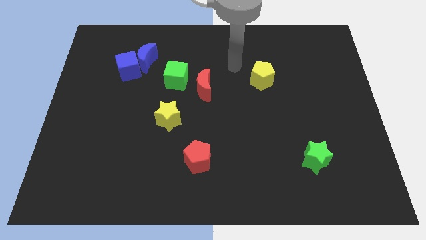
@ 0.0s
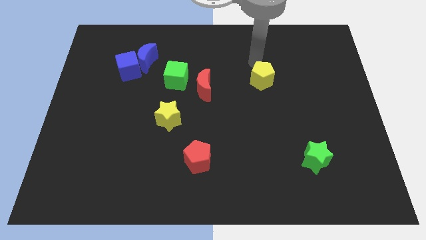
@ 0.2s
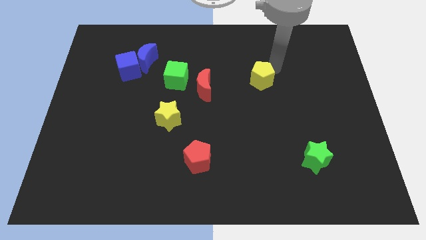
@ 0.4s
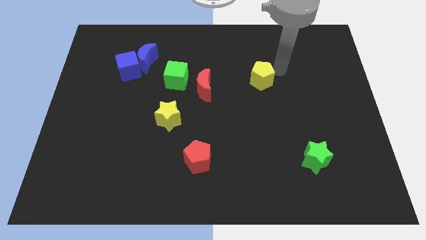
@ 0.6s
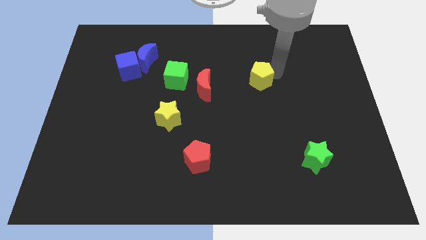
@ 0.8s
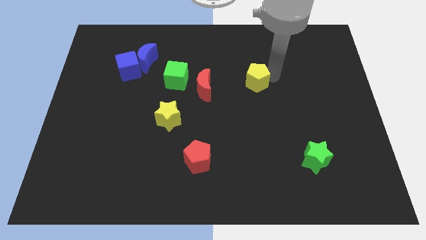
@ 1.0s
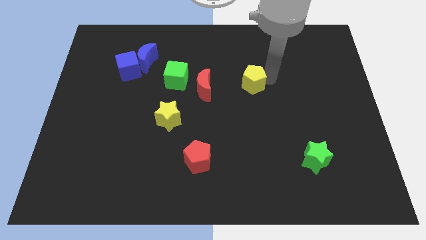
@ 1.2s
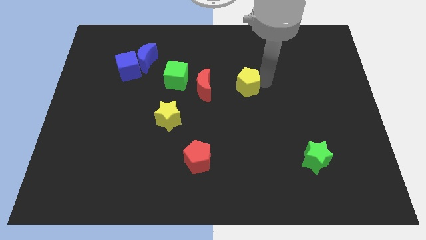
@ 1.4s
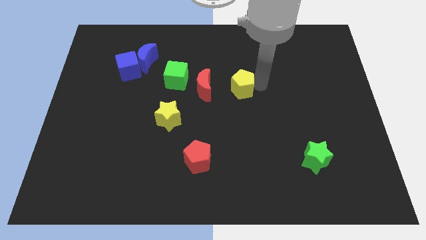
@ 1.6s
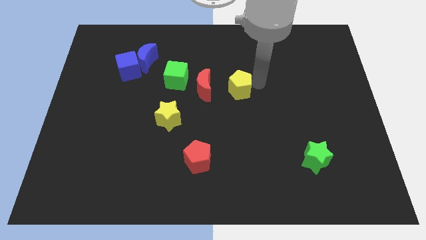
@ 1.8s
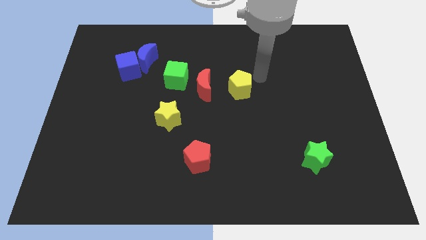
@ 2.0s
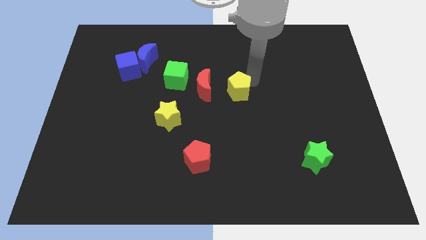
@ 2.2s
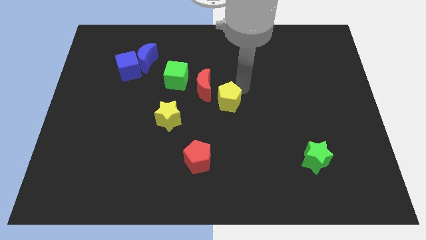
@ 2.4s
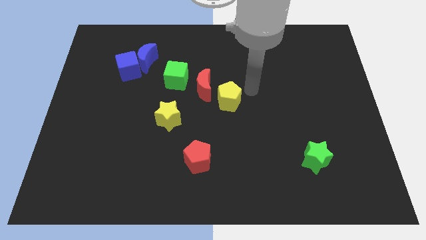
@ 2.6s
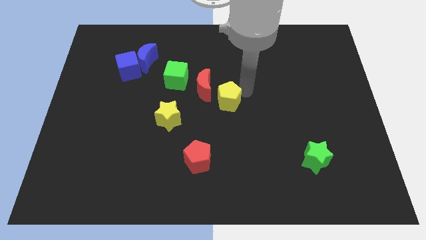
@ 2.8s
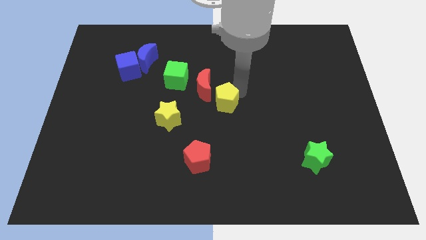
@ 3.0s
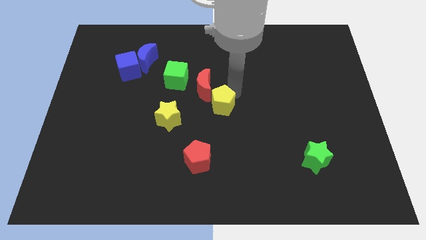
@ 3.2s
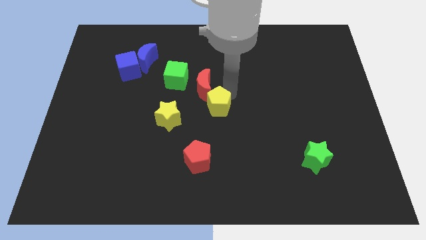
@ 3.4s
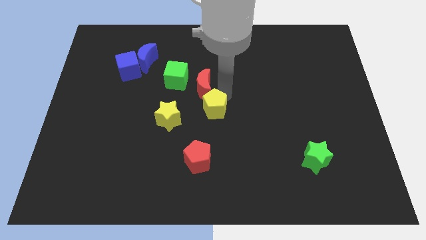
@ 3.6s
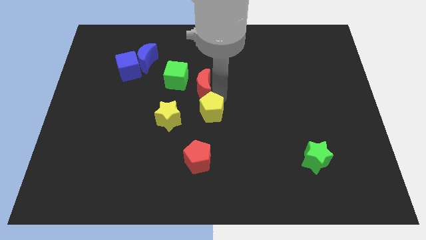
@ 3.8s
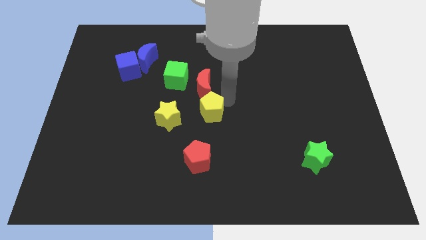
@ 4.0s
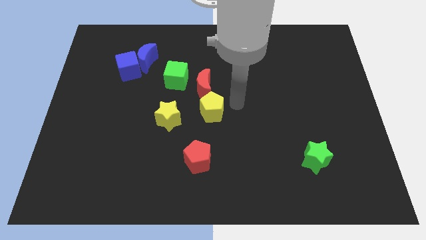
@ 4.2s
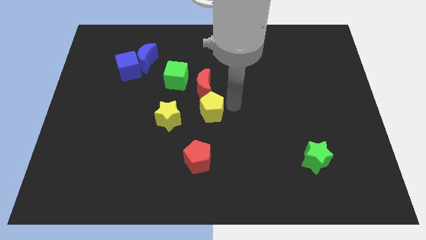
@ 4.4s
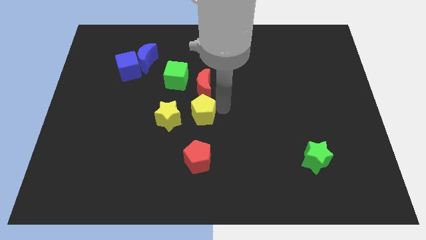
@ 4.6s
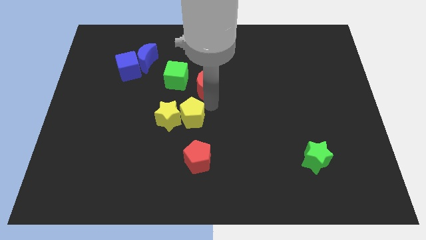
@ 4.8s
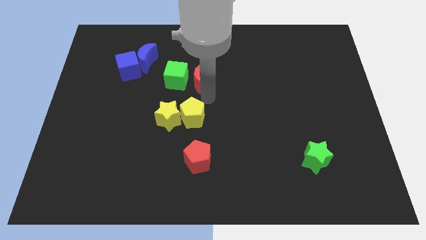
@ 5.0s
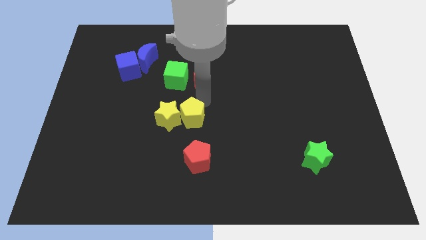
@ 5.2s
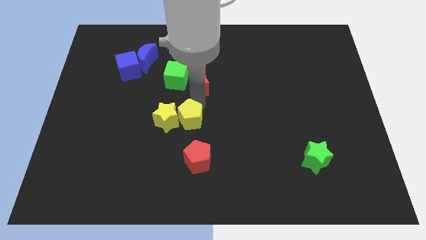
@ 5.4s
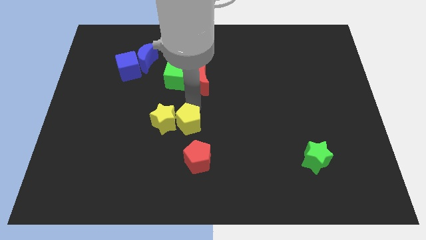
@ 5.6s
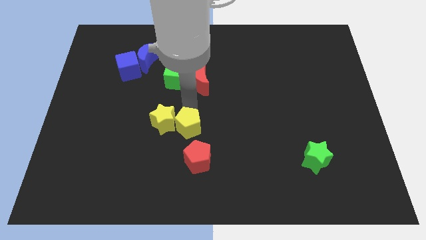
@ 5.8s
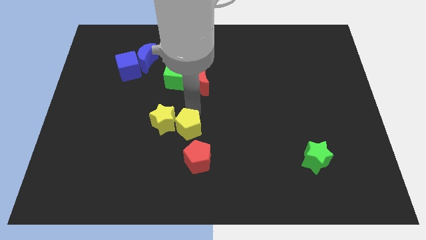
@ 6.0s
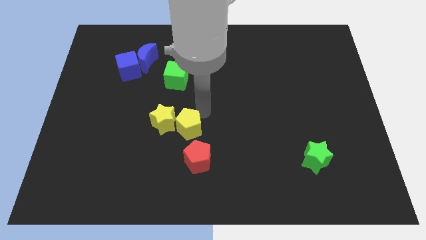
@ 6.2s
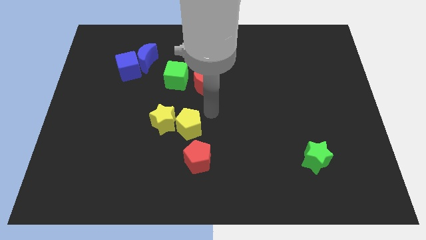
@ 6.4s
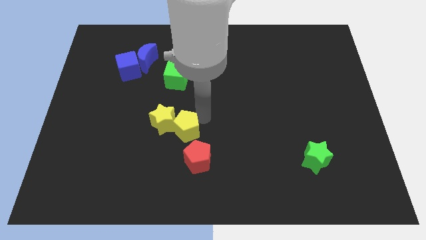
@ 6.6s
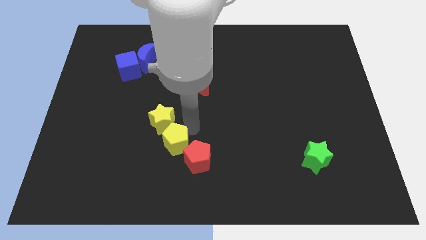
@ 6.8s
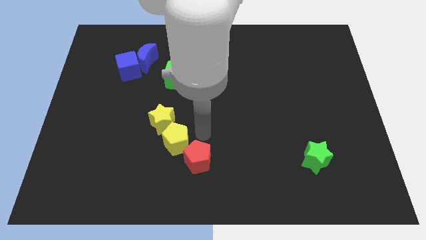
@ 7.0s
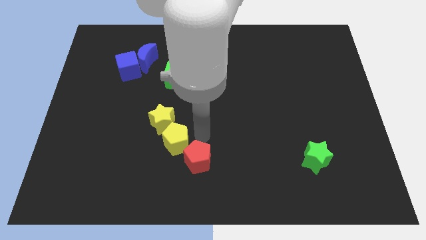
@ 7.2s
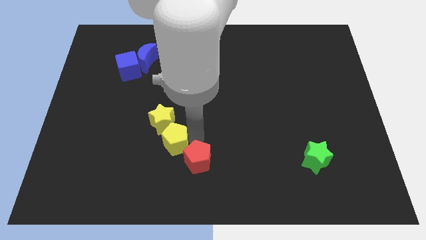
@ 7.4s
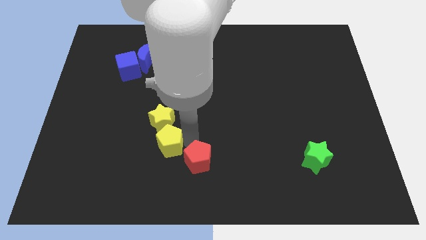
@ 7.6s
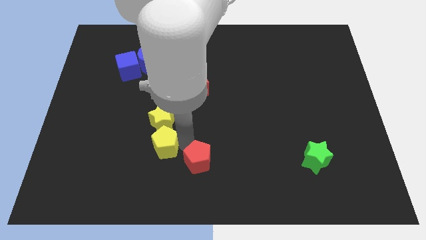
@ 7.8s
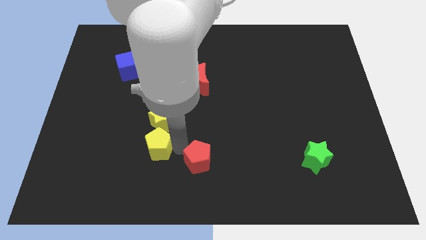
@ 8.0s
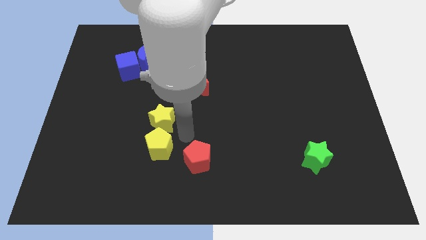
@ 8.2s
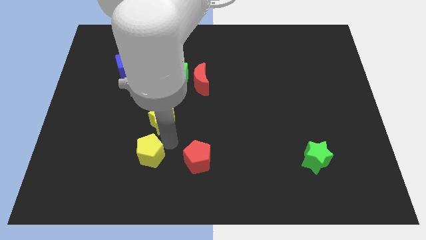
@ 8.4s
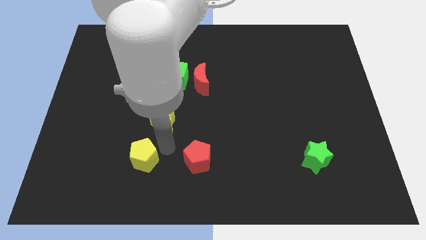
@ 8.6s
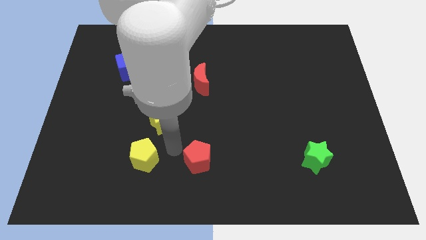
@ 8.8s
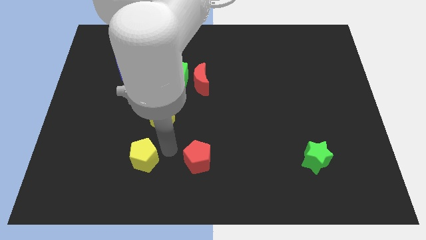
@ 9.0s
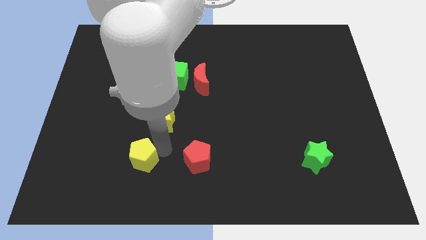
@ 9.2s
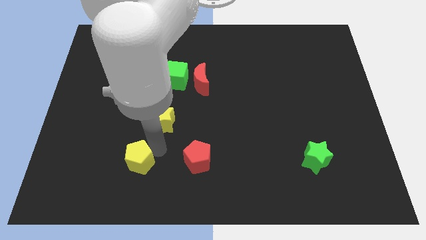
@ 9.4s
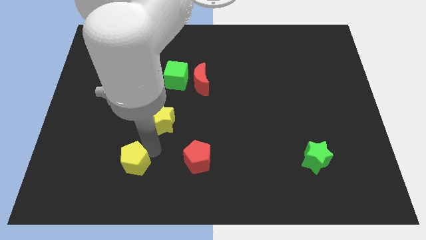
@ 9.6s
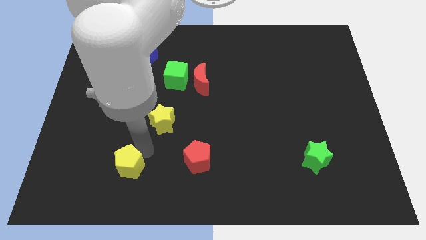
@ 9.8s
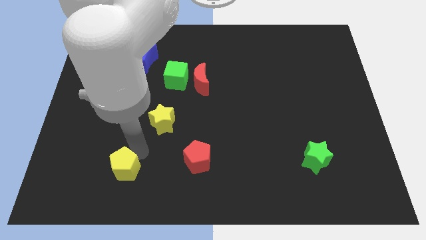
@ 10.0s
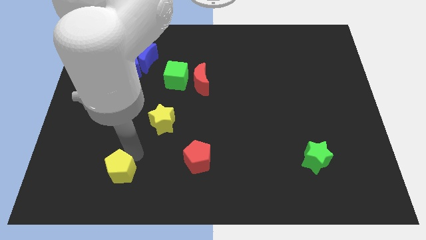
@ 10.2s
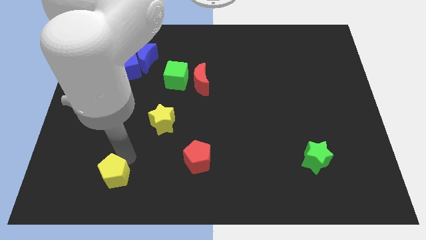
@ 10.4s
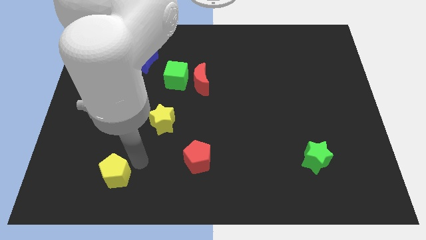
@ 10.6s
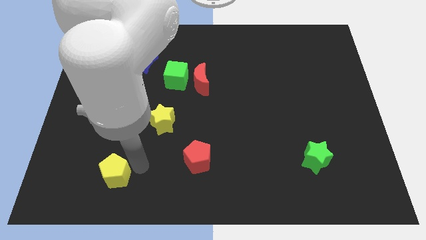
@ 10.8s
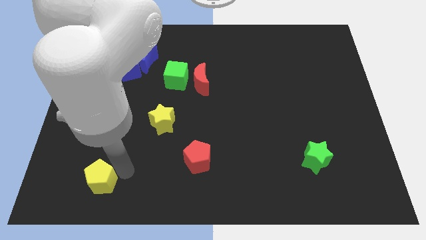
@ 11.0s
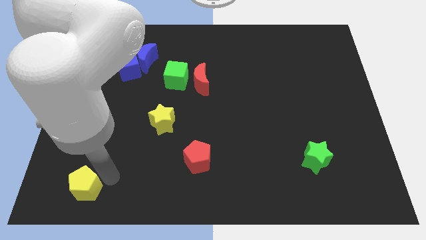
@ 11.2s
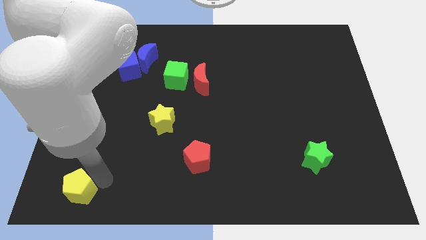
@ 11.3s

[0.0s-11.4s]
push the yellow pentagon to the bottom left of the board

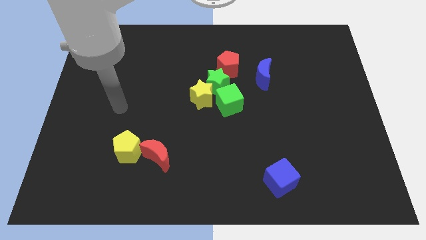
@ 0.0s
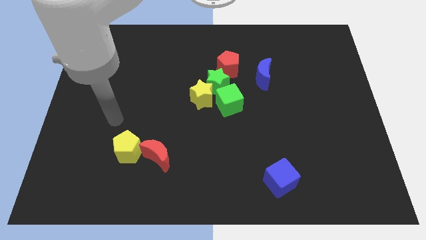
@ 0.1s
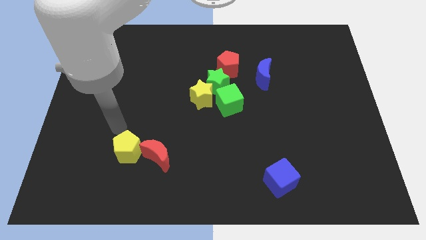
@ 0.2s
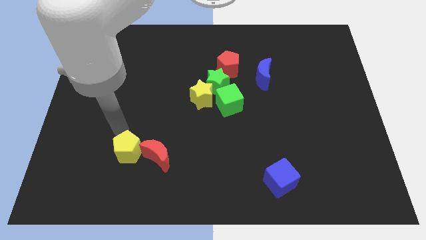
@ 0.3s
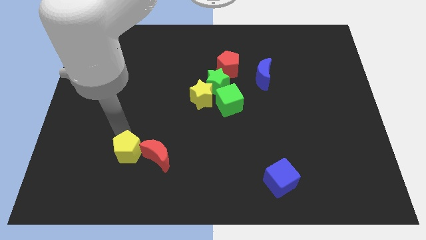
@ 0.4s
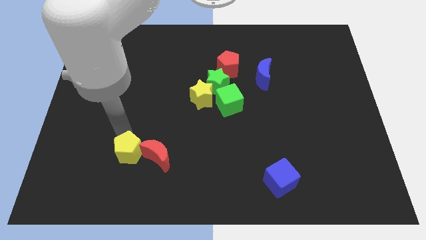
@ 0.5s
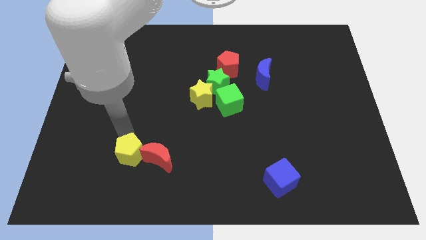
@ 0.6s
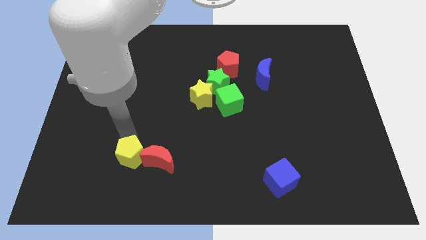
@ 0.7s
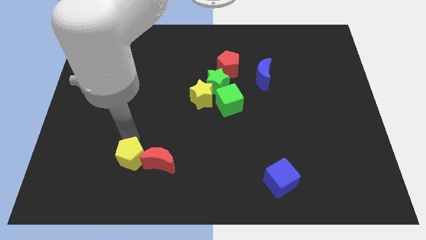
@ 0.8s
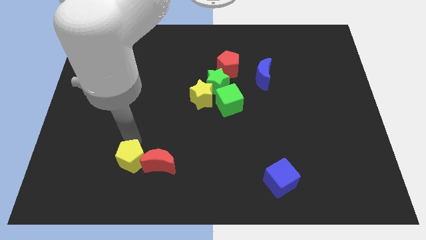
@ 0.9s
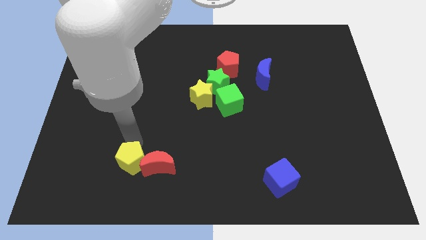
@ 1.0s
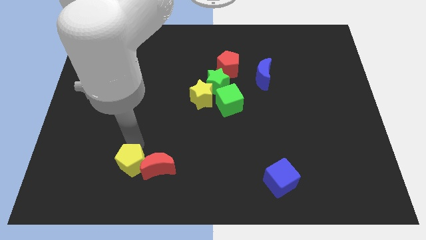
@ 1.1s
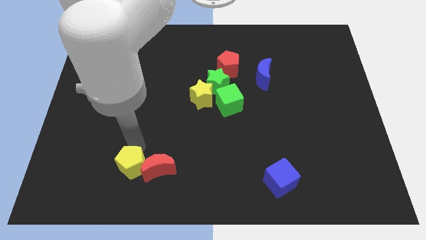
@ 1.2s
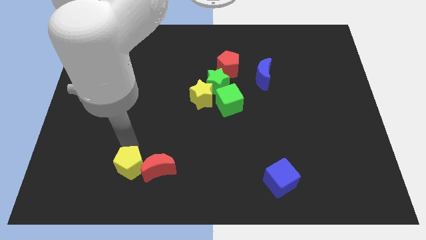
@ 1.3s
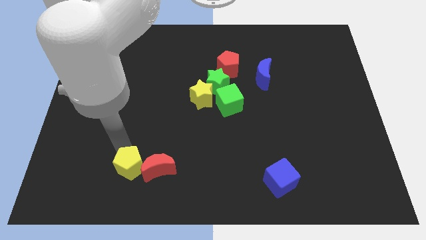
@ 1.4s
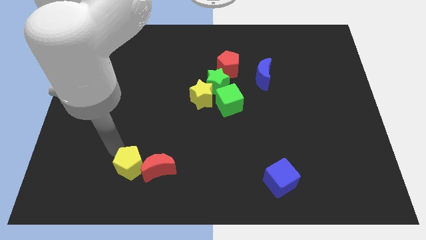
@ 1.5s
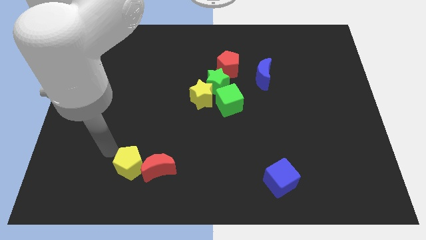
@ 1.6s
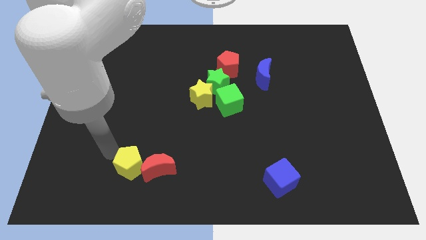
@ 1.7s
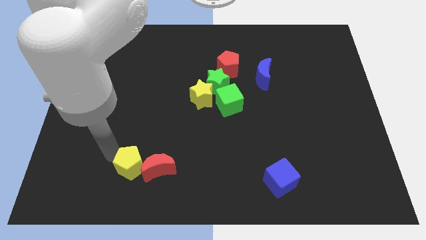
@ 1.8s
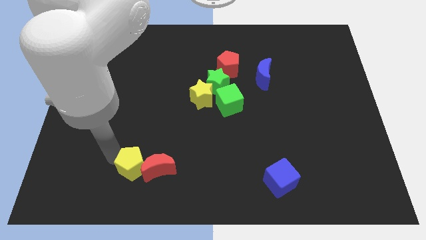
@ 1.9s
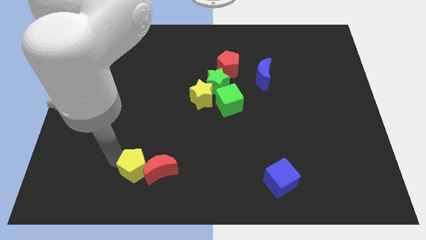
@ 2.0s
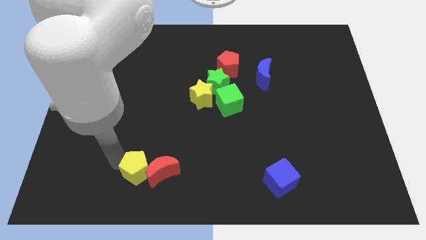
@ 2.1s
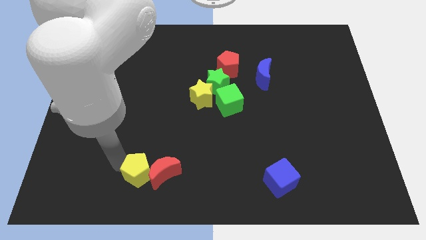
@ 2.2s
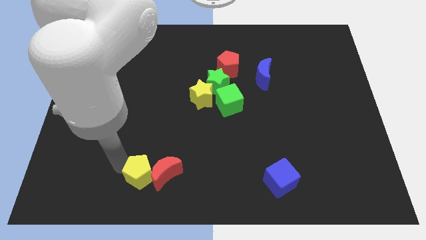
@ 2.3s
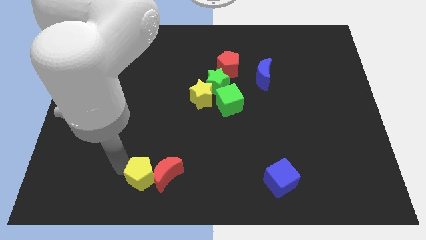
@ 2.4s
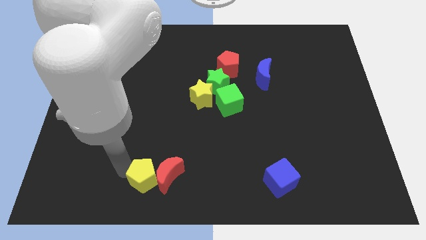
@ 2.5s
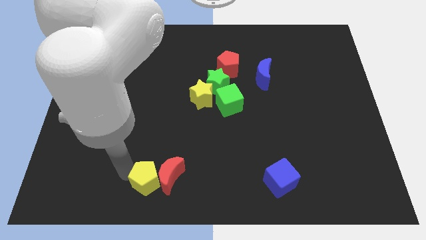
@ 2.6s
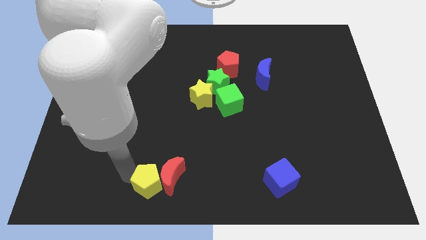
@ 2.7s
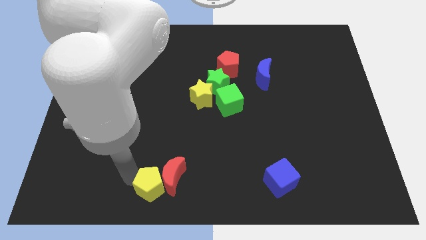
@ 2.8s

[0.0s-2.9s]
put the yellow pentagon to the bottom
